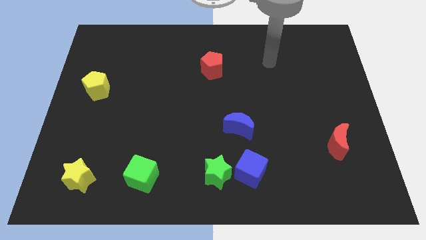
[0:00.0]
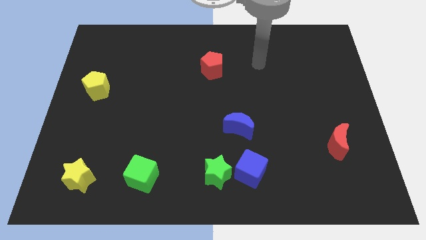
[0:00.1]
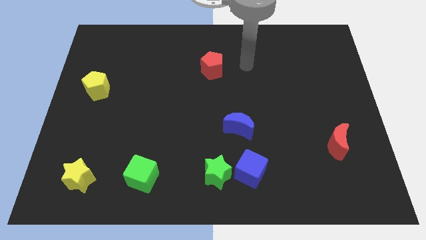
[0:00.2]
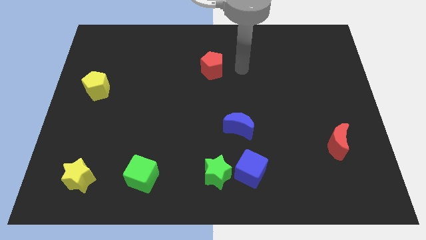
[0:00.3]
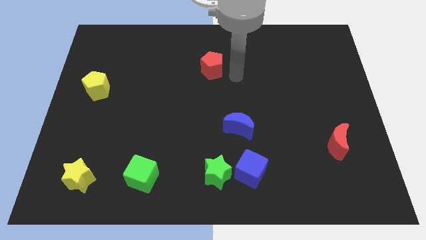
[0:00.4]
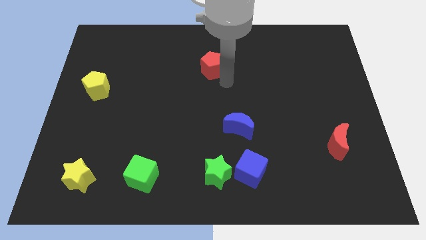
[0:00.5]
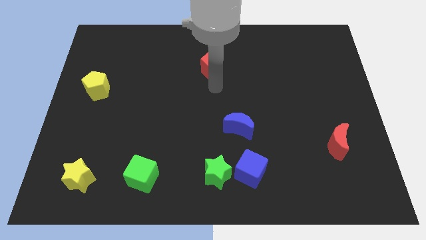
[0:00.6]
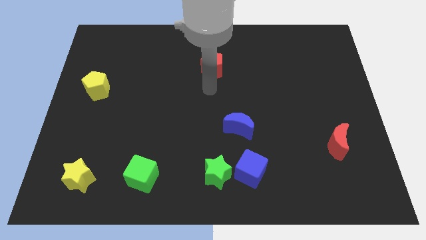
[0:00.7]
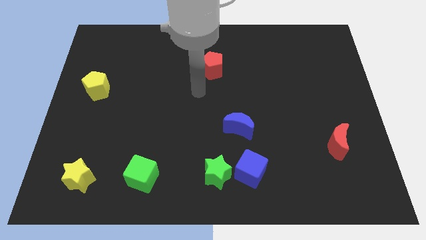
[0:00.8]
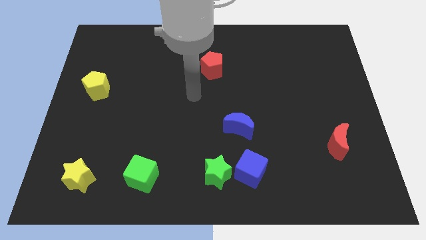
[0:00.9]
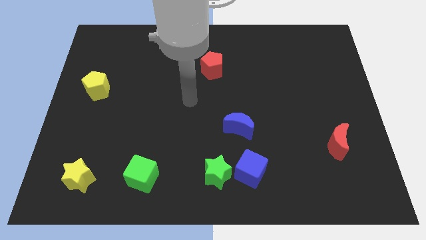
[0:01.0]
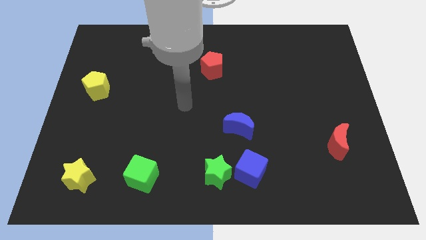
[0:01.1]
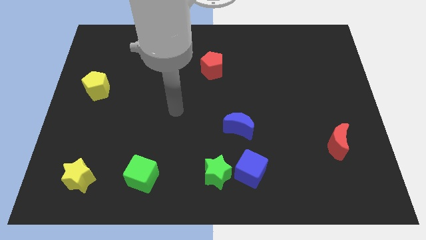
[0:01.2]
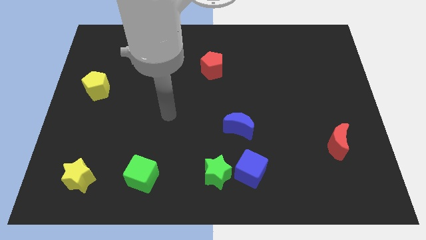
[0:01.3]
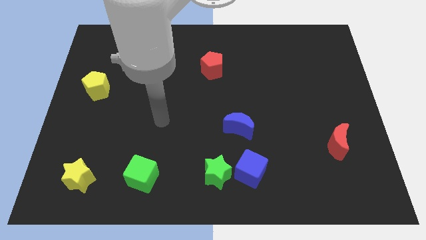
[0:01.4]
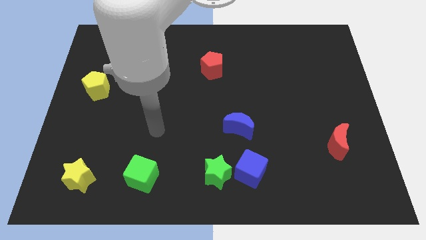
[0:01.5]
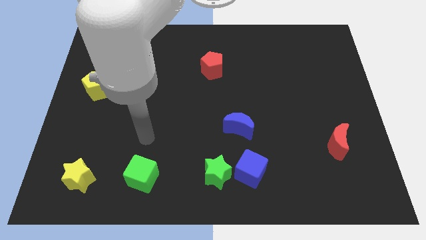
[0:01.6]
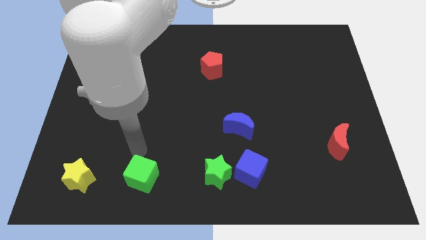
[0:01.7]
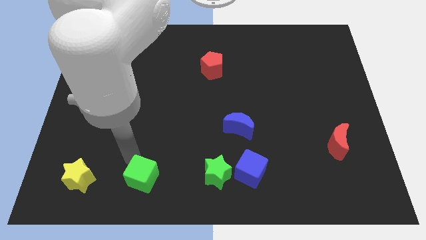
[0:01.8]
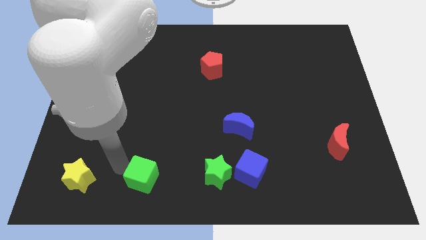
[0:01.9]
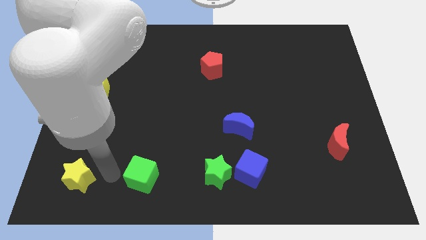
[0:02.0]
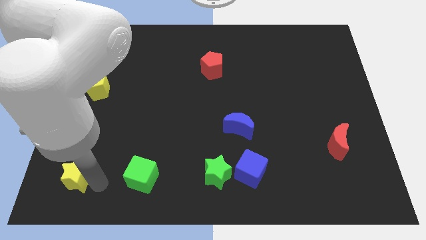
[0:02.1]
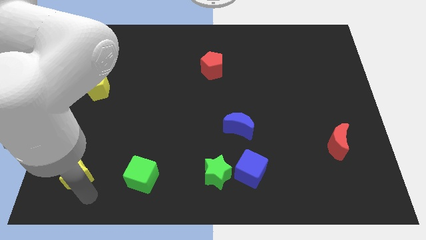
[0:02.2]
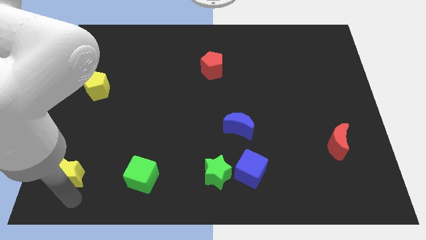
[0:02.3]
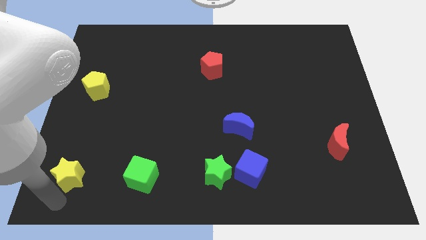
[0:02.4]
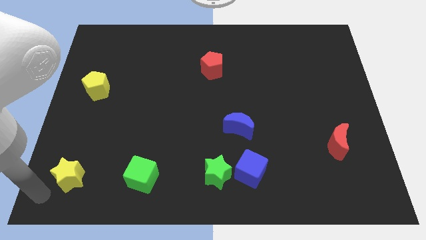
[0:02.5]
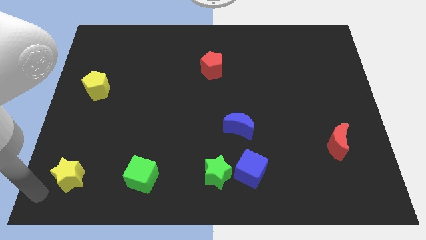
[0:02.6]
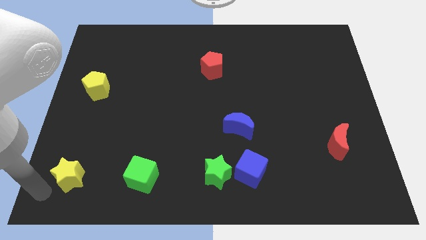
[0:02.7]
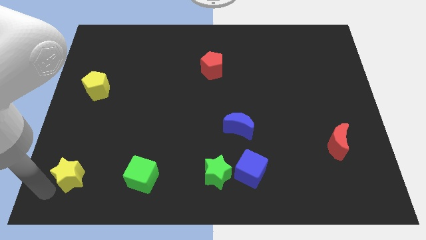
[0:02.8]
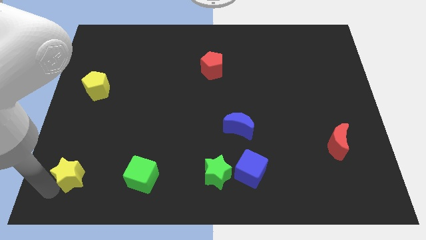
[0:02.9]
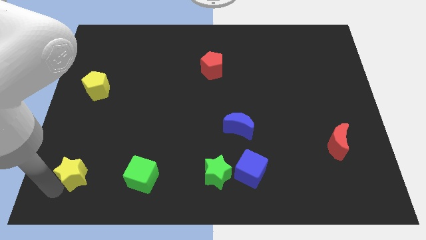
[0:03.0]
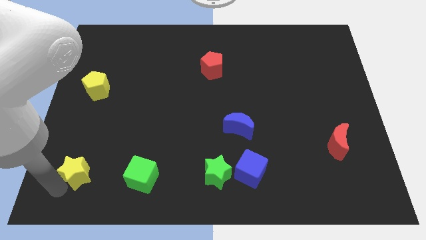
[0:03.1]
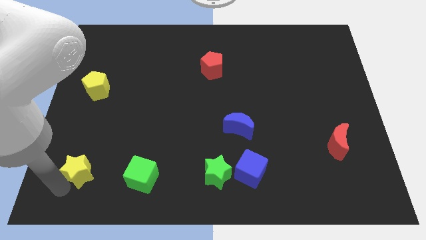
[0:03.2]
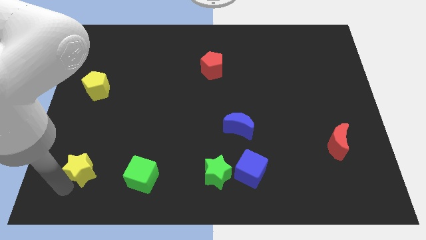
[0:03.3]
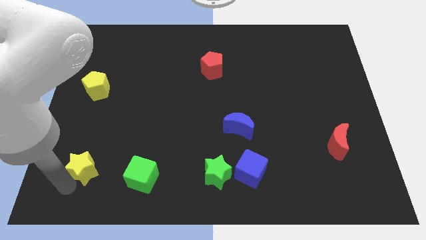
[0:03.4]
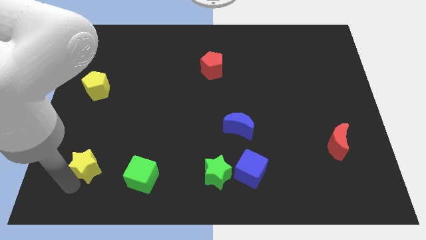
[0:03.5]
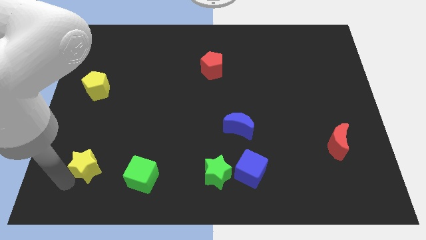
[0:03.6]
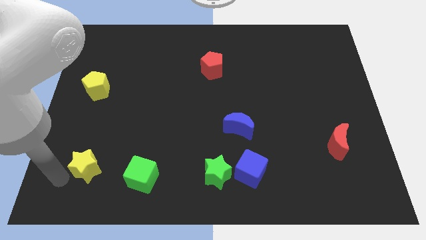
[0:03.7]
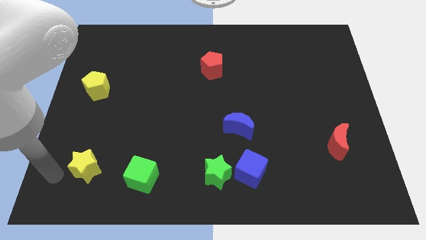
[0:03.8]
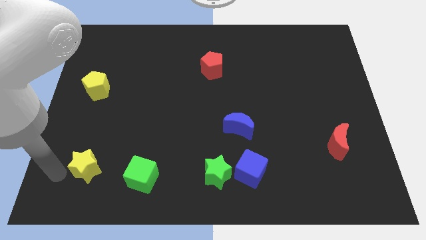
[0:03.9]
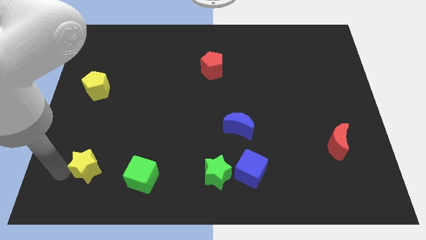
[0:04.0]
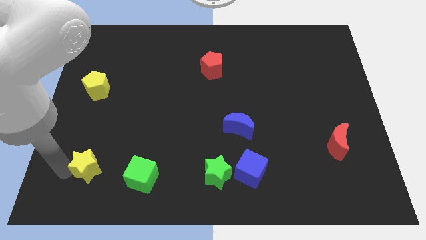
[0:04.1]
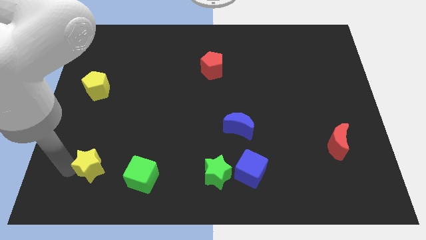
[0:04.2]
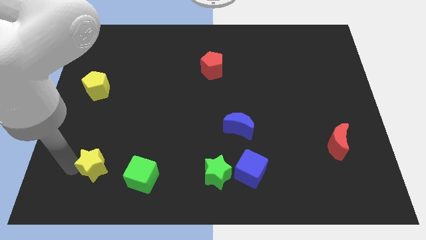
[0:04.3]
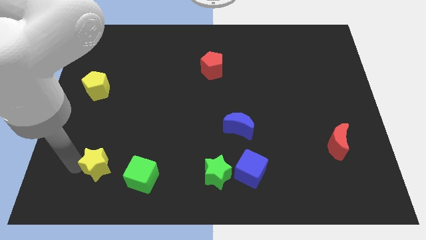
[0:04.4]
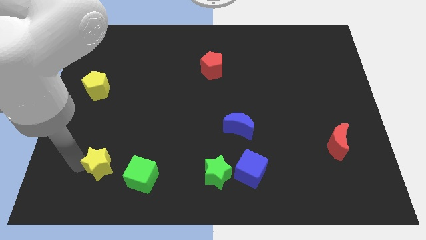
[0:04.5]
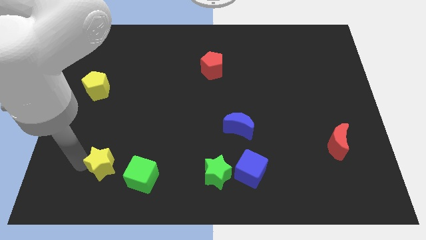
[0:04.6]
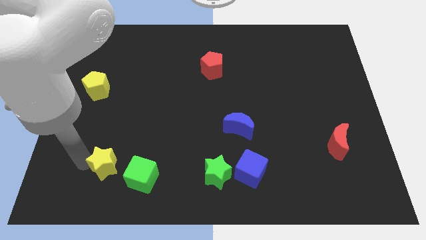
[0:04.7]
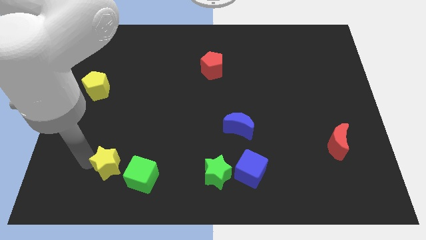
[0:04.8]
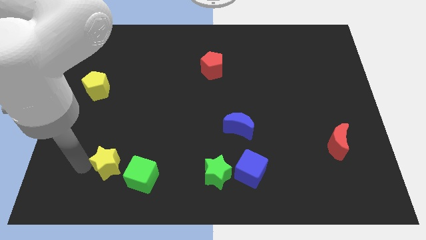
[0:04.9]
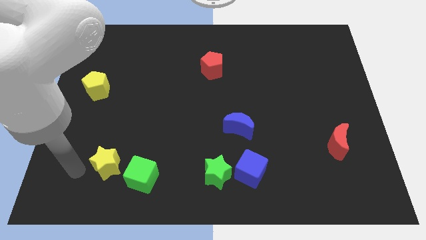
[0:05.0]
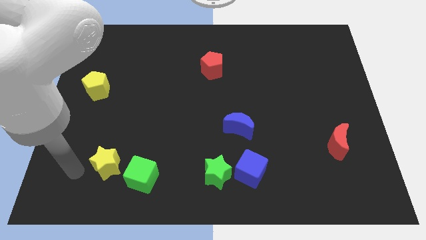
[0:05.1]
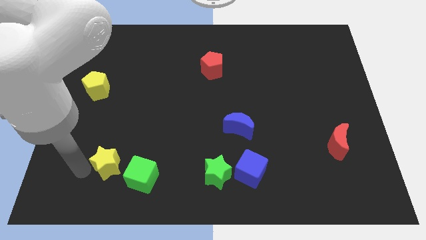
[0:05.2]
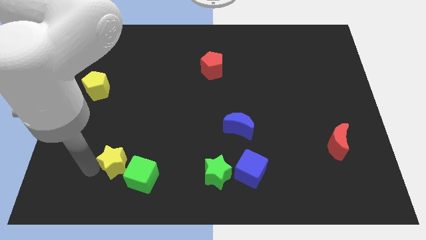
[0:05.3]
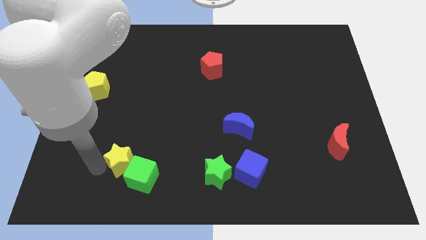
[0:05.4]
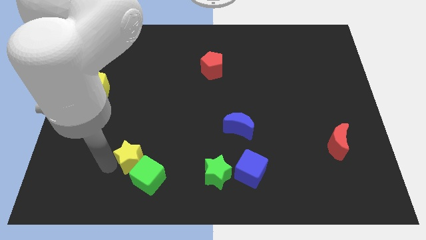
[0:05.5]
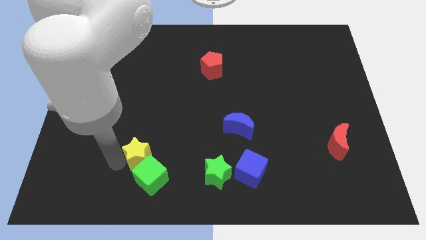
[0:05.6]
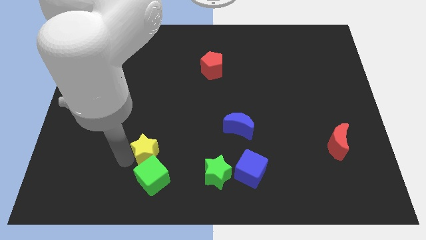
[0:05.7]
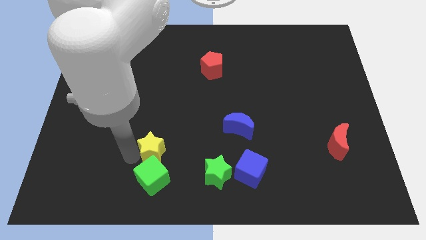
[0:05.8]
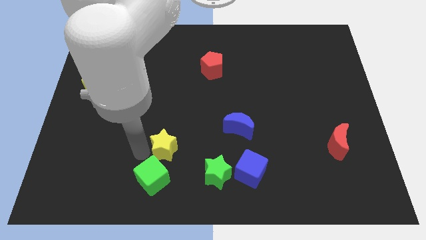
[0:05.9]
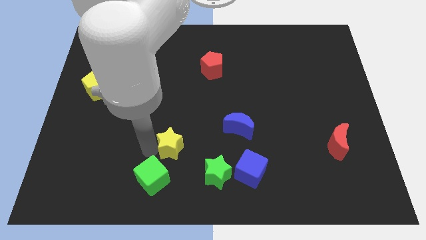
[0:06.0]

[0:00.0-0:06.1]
push the yellow star to the top left side of the green star

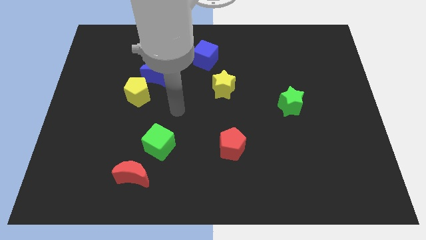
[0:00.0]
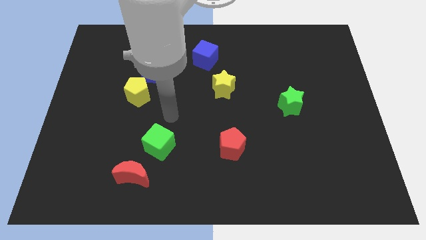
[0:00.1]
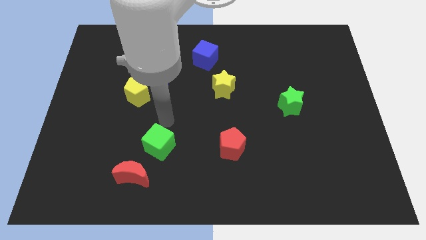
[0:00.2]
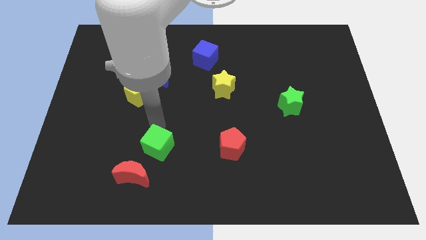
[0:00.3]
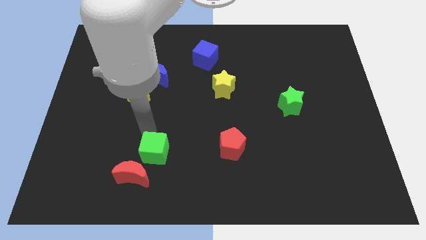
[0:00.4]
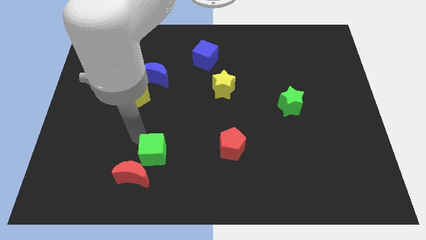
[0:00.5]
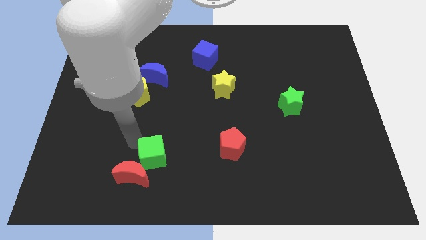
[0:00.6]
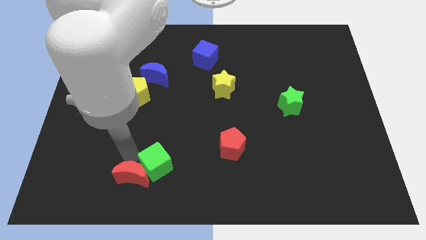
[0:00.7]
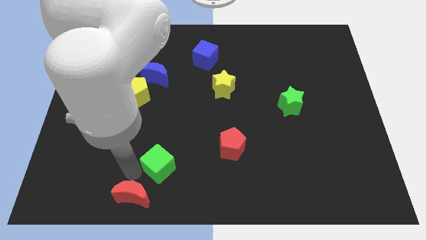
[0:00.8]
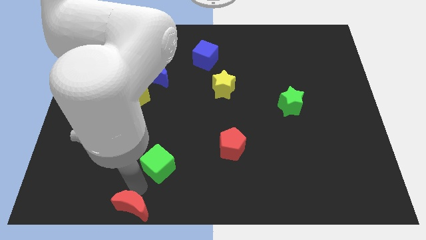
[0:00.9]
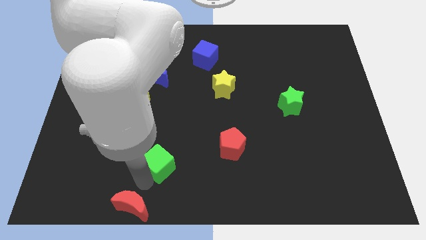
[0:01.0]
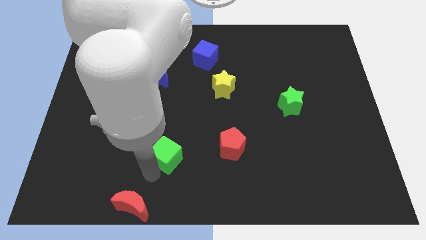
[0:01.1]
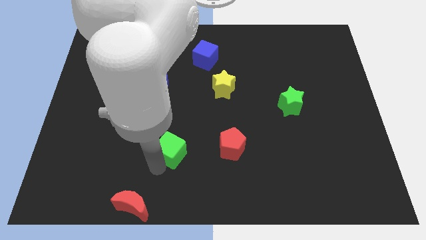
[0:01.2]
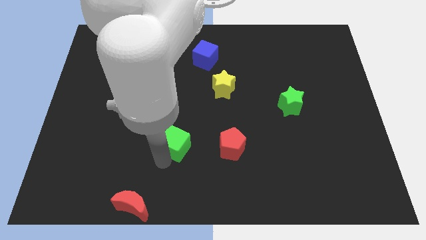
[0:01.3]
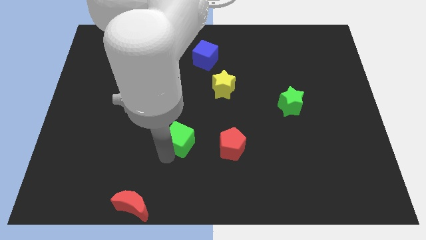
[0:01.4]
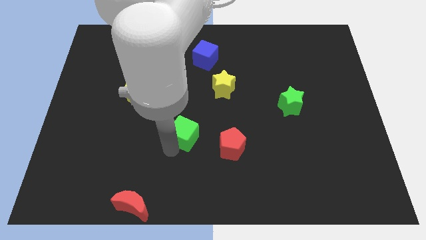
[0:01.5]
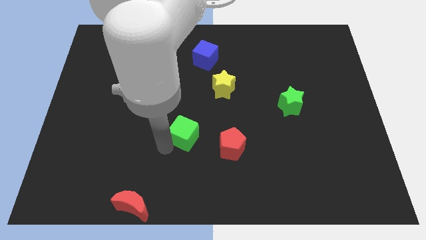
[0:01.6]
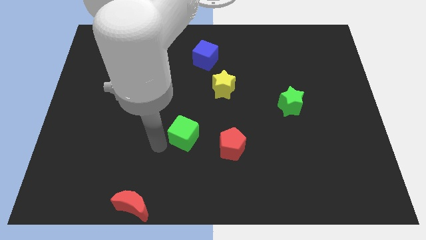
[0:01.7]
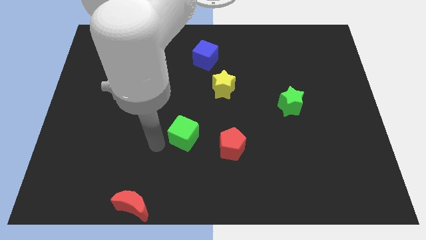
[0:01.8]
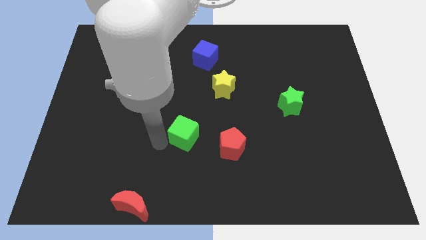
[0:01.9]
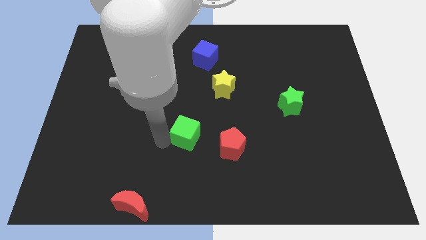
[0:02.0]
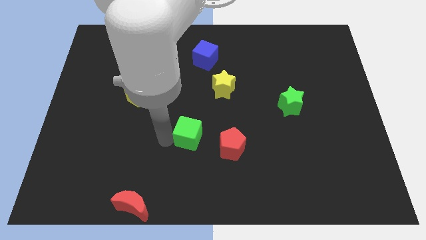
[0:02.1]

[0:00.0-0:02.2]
slide the green cube diagonally up and to the left of the red pentagon
